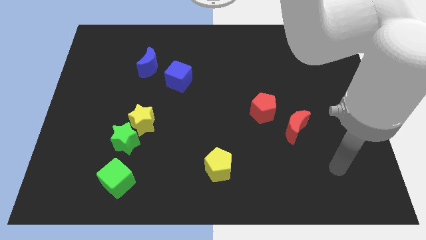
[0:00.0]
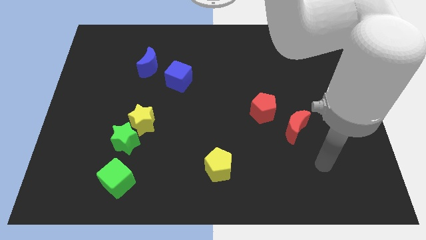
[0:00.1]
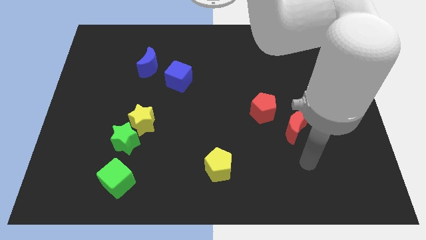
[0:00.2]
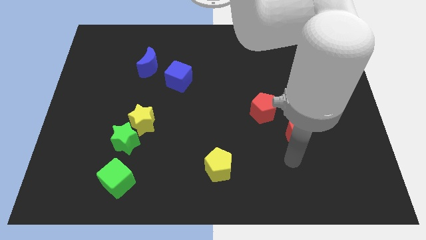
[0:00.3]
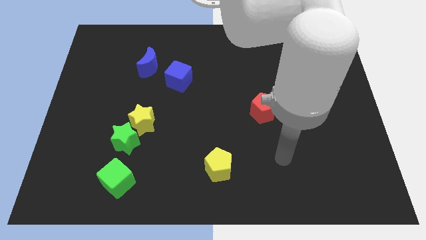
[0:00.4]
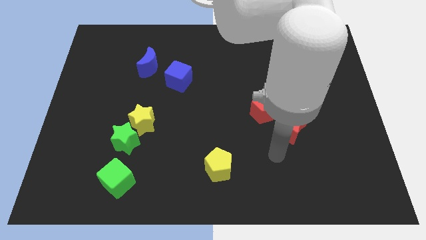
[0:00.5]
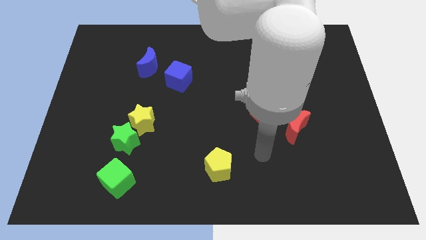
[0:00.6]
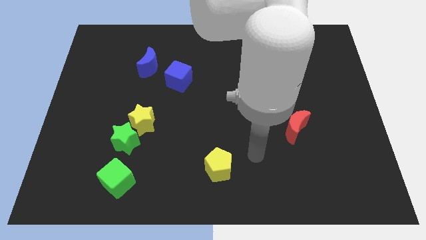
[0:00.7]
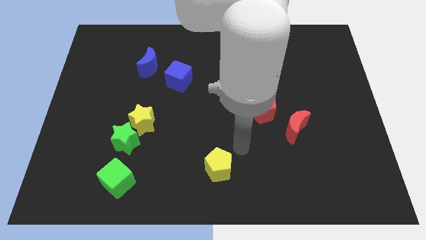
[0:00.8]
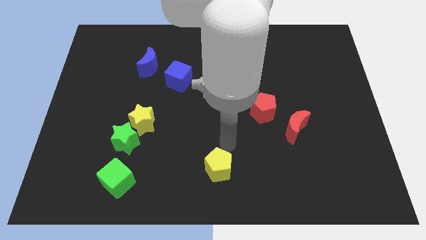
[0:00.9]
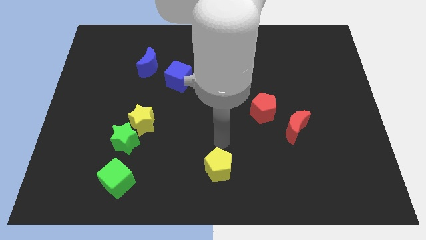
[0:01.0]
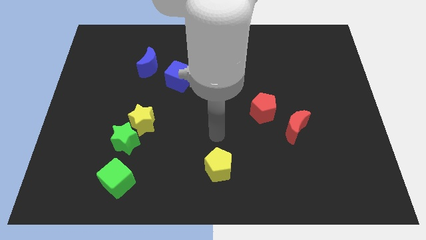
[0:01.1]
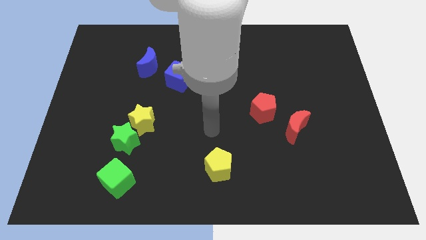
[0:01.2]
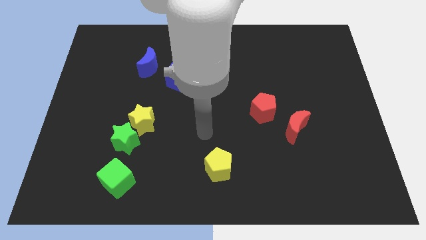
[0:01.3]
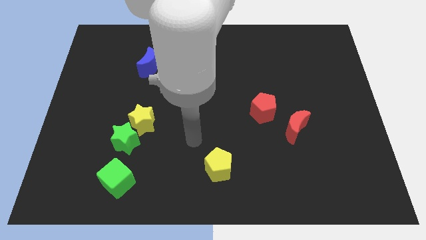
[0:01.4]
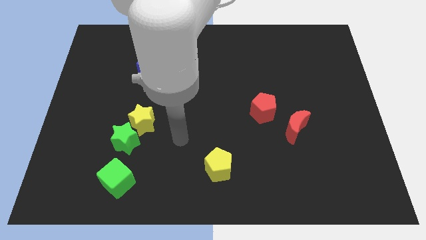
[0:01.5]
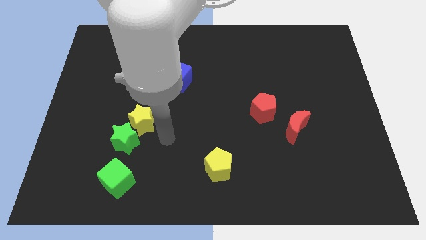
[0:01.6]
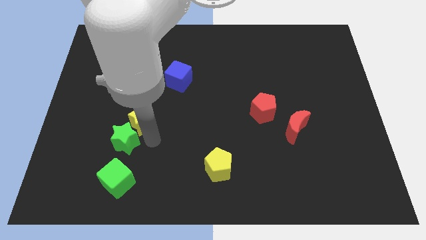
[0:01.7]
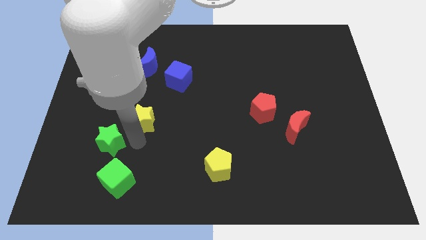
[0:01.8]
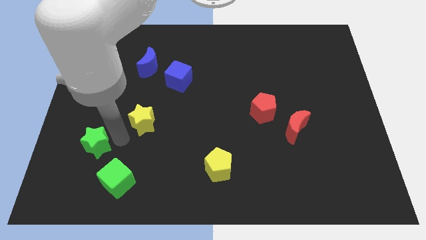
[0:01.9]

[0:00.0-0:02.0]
move the yellow star away from the green star

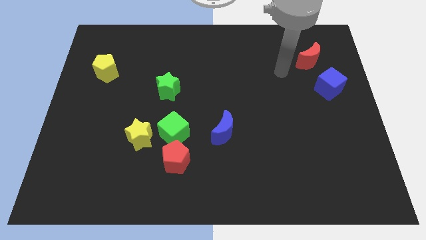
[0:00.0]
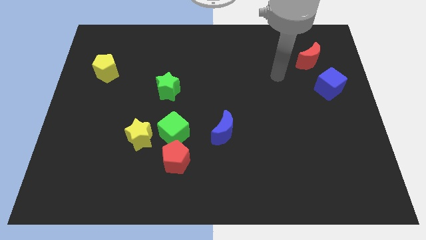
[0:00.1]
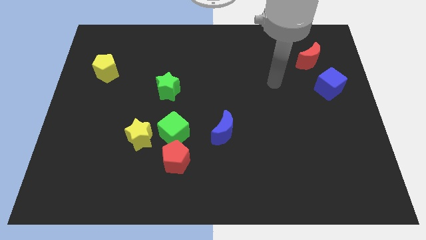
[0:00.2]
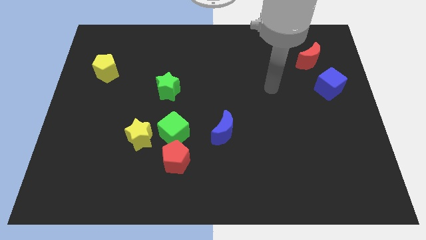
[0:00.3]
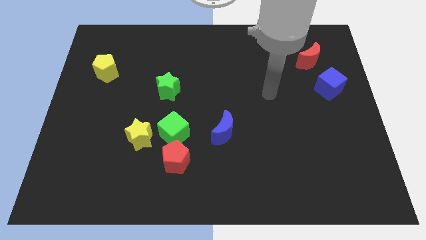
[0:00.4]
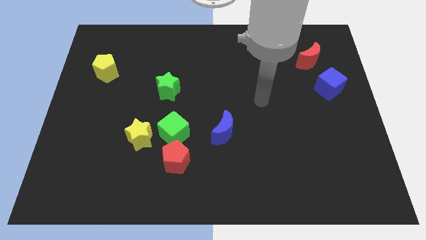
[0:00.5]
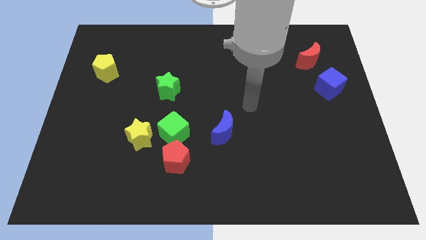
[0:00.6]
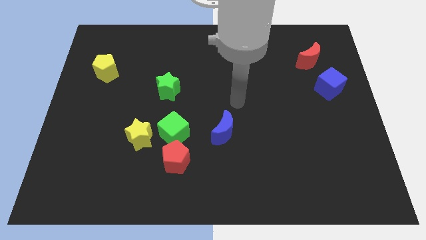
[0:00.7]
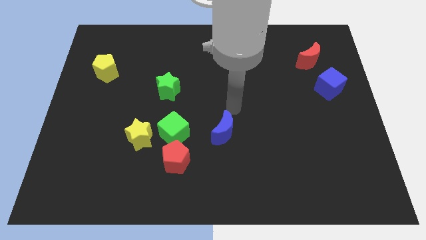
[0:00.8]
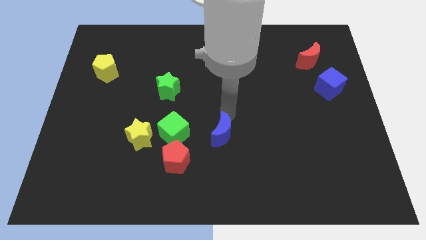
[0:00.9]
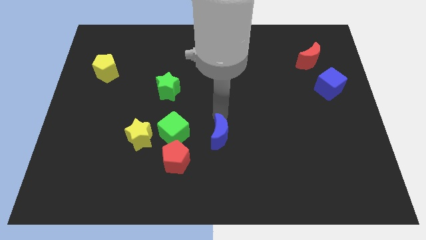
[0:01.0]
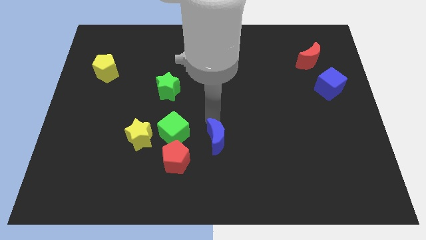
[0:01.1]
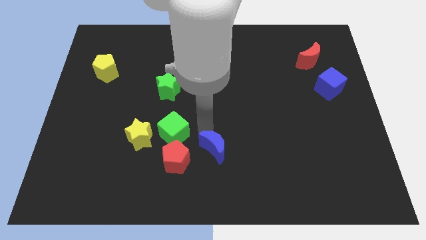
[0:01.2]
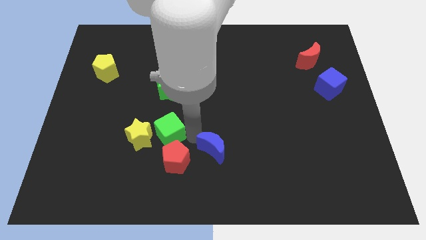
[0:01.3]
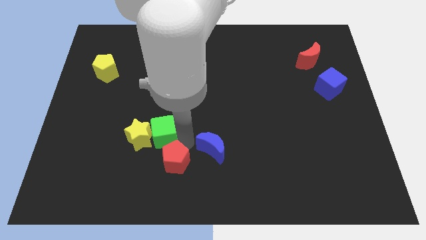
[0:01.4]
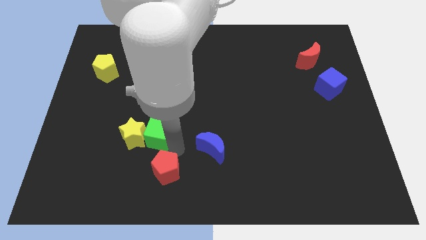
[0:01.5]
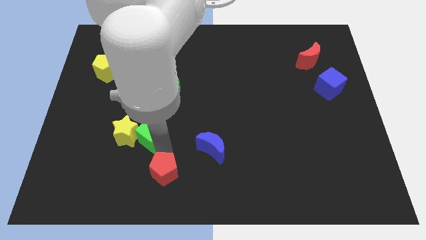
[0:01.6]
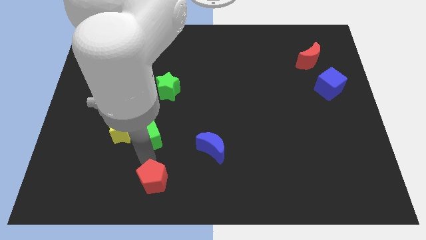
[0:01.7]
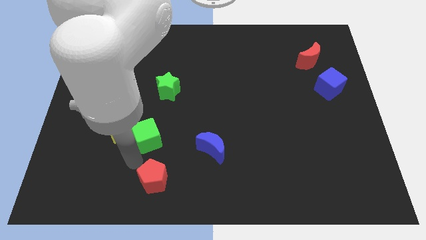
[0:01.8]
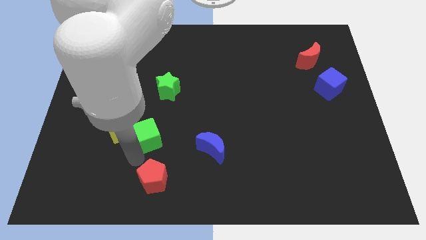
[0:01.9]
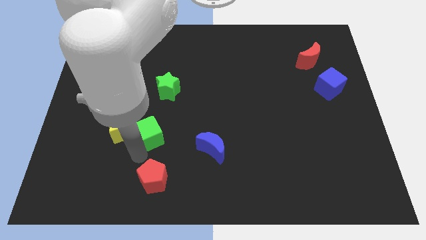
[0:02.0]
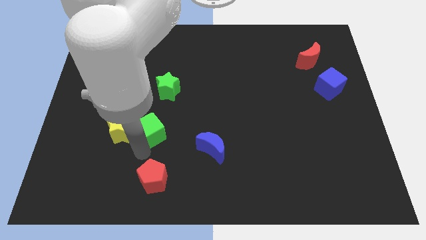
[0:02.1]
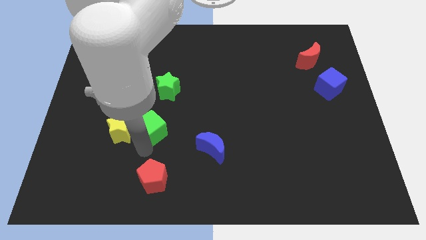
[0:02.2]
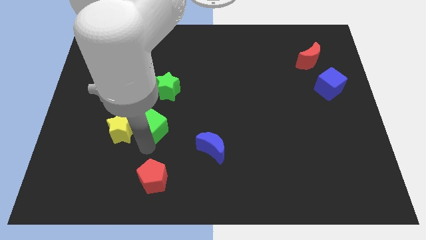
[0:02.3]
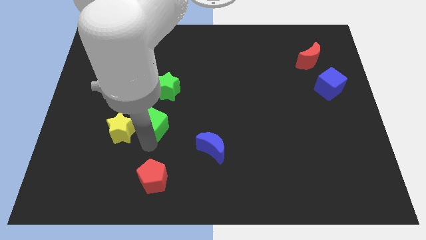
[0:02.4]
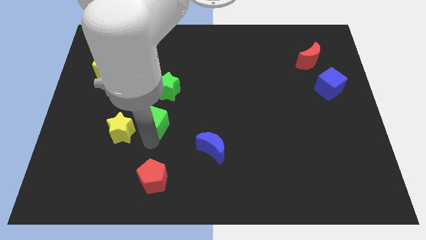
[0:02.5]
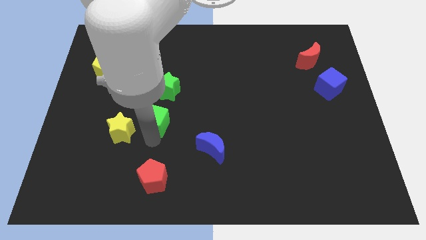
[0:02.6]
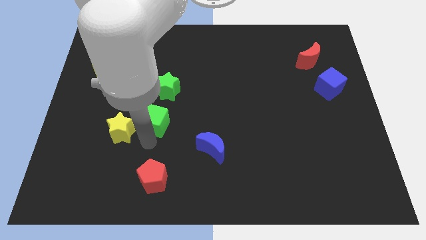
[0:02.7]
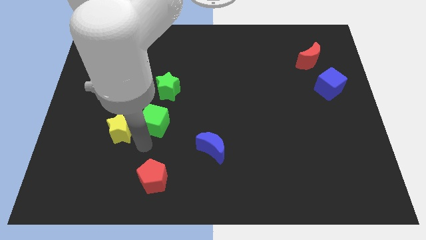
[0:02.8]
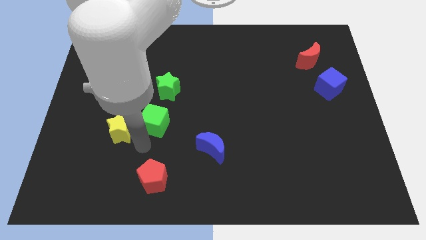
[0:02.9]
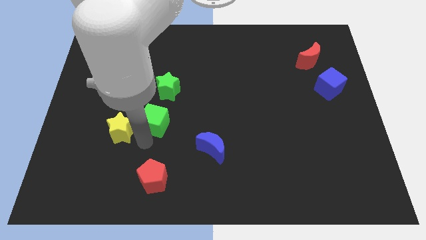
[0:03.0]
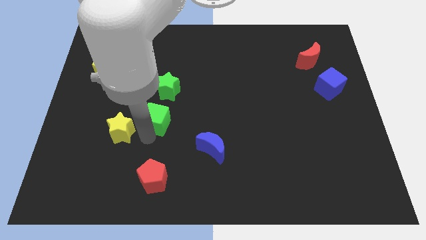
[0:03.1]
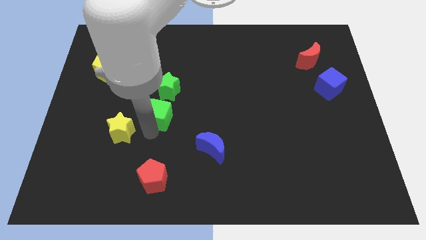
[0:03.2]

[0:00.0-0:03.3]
separate the green cube from the red pentagon and yellow star

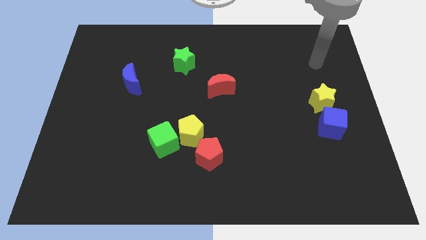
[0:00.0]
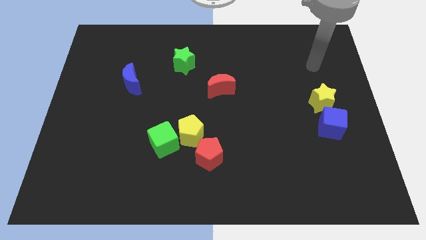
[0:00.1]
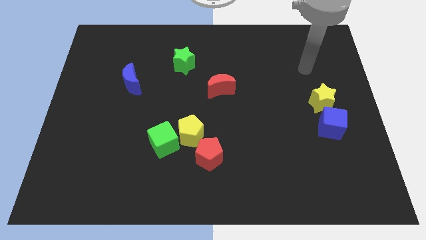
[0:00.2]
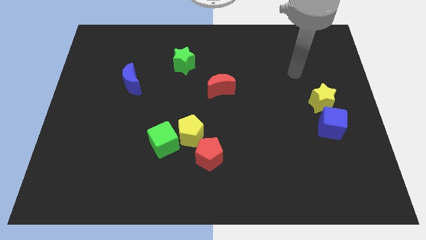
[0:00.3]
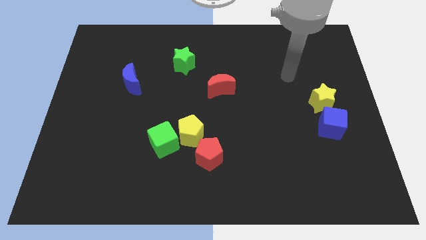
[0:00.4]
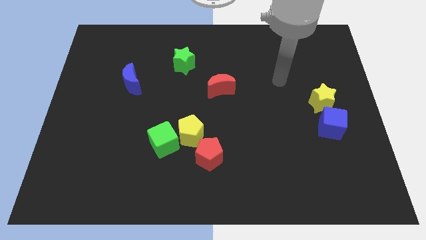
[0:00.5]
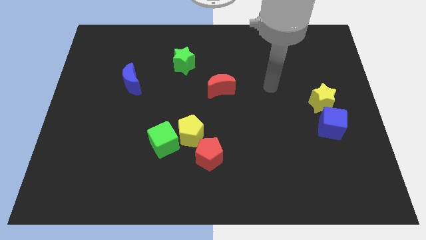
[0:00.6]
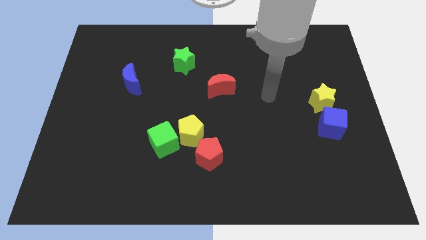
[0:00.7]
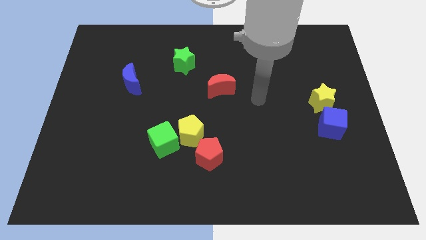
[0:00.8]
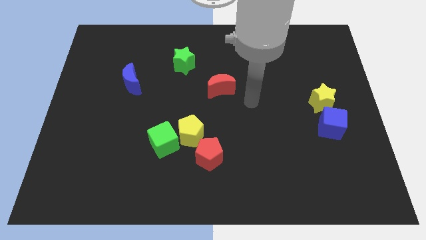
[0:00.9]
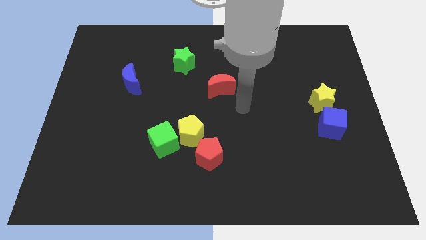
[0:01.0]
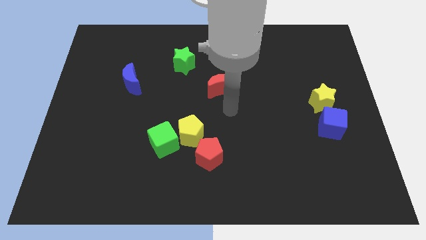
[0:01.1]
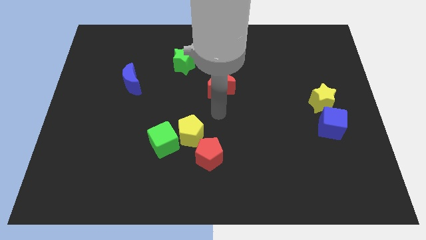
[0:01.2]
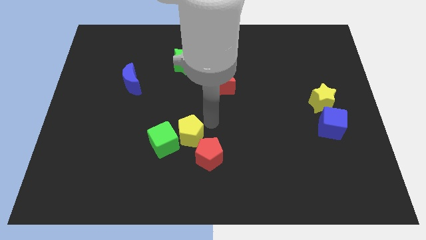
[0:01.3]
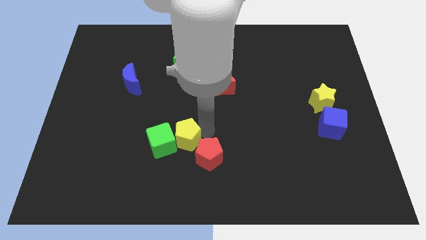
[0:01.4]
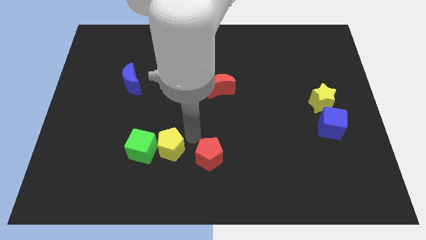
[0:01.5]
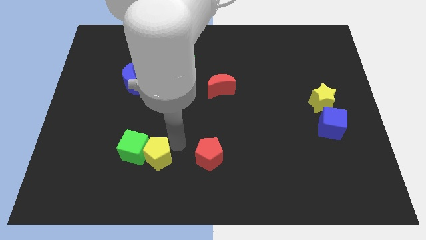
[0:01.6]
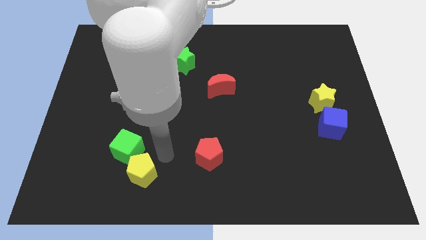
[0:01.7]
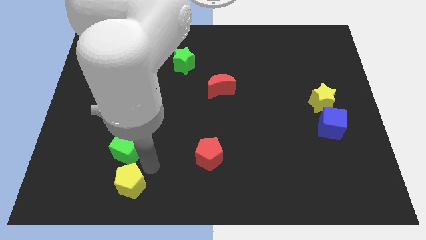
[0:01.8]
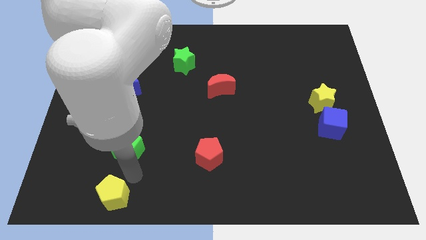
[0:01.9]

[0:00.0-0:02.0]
move the green cube away from the yellow pentagon

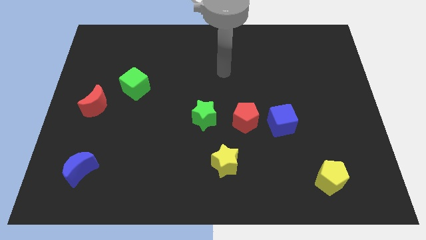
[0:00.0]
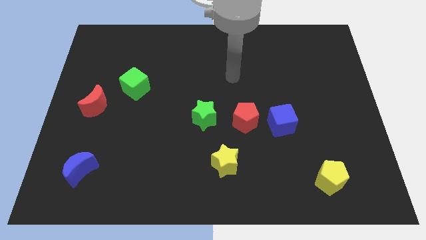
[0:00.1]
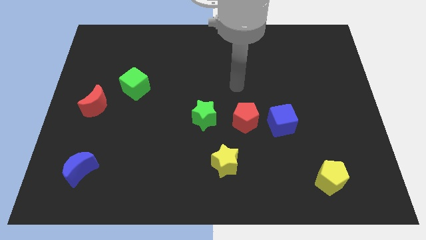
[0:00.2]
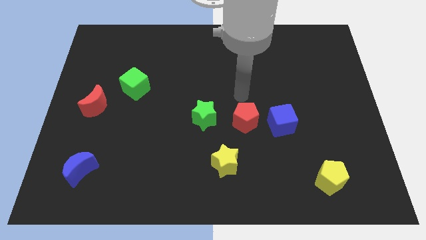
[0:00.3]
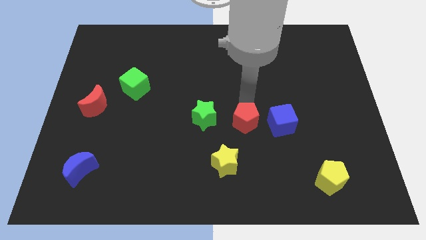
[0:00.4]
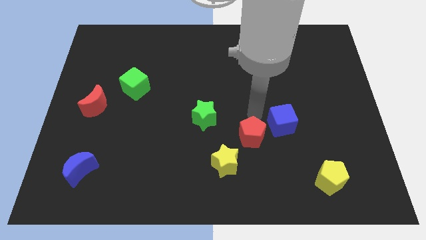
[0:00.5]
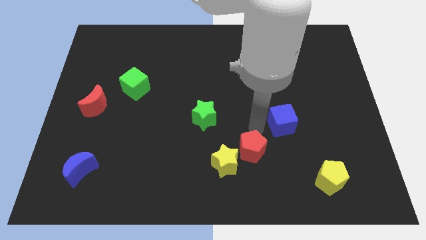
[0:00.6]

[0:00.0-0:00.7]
move the blue cube away from the red pentagon

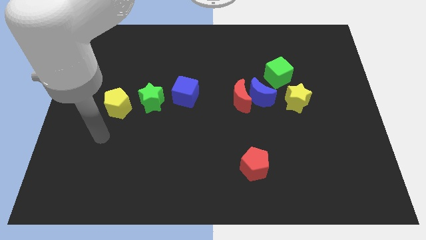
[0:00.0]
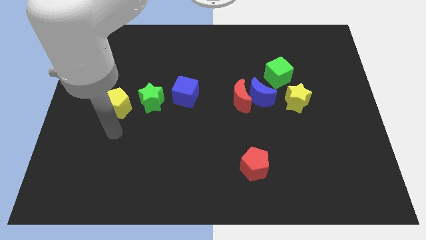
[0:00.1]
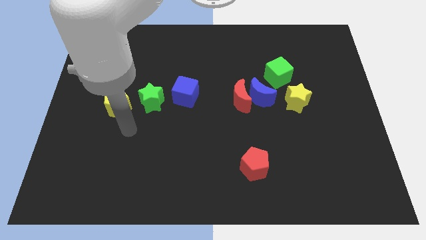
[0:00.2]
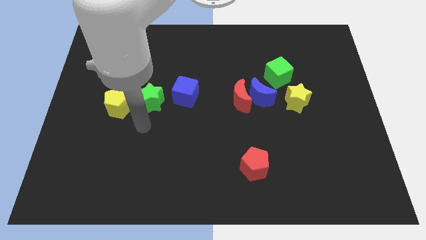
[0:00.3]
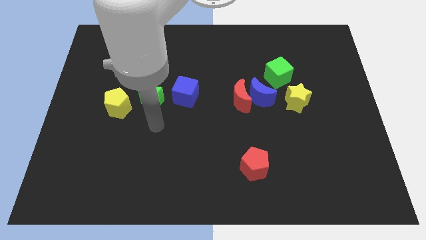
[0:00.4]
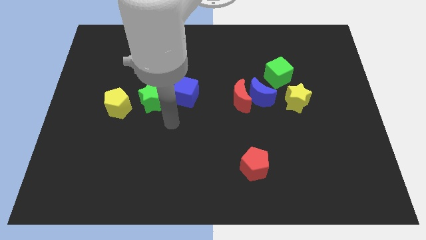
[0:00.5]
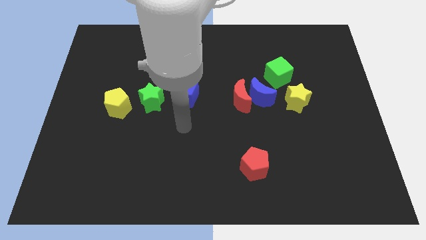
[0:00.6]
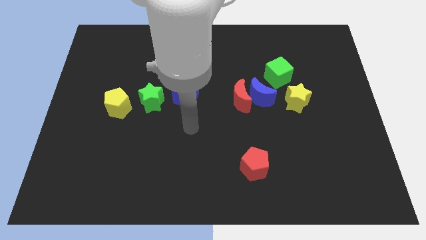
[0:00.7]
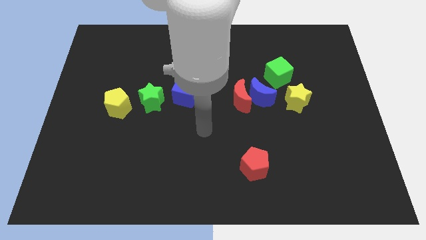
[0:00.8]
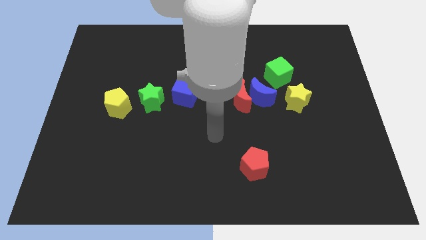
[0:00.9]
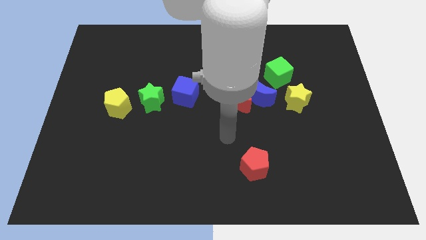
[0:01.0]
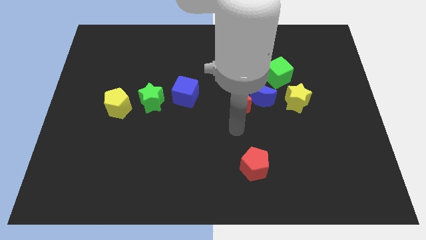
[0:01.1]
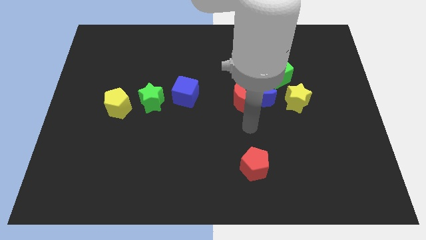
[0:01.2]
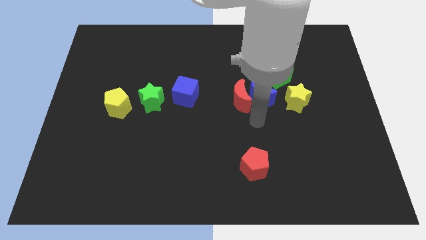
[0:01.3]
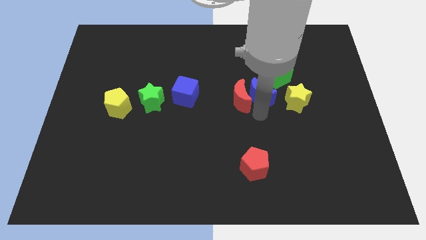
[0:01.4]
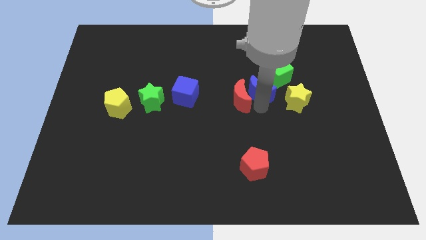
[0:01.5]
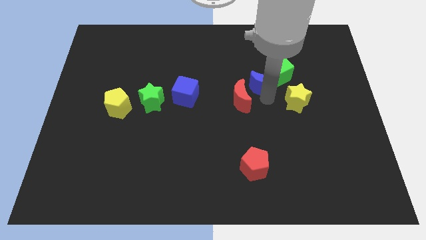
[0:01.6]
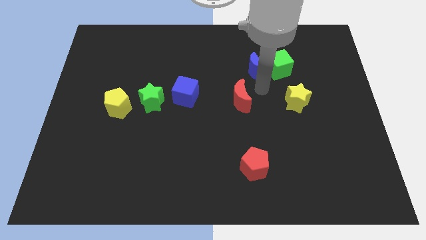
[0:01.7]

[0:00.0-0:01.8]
move the red moon away from the blue moon
